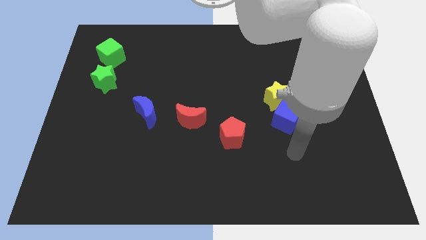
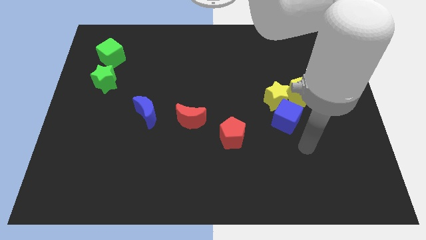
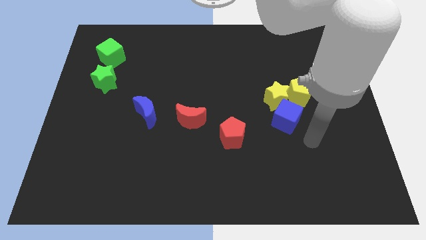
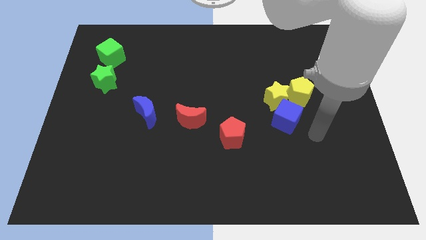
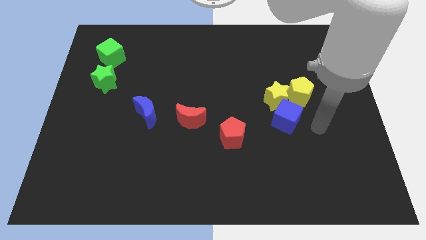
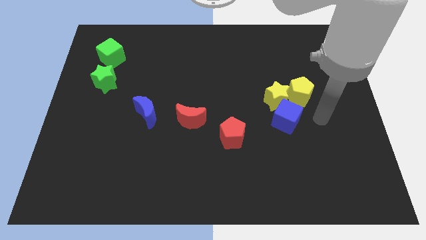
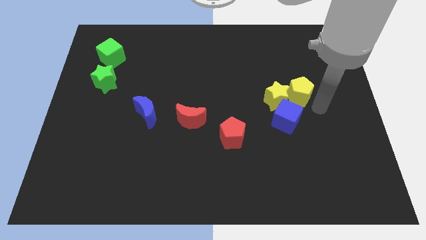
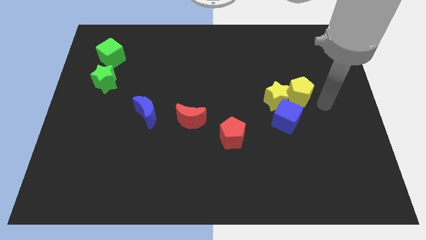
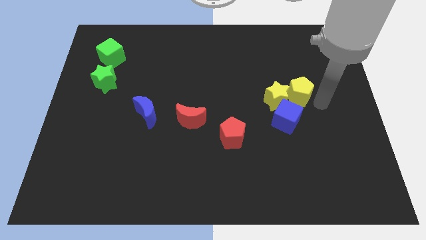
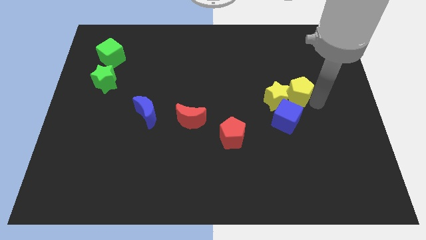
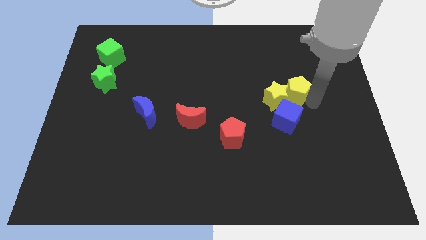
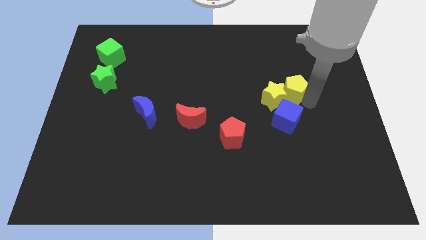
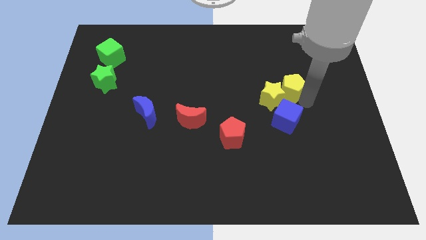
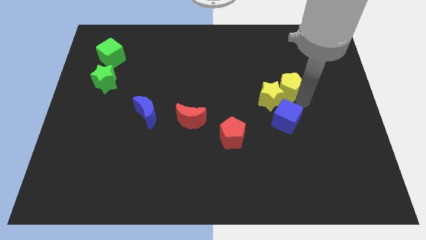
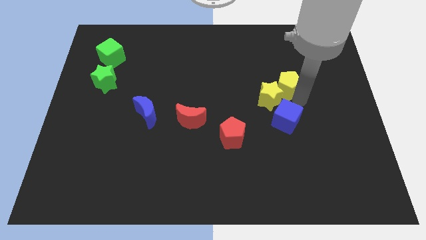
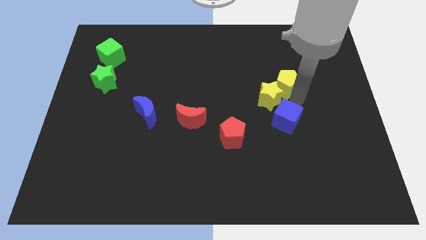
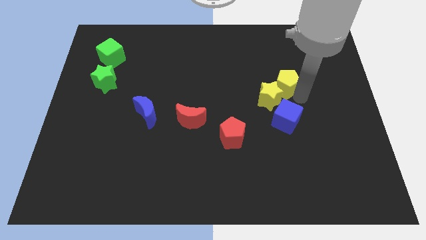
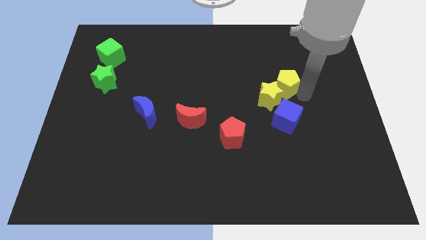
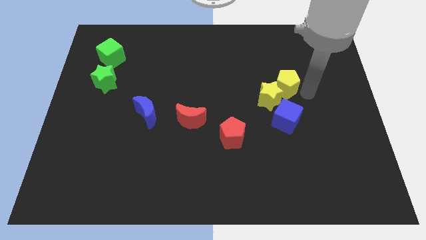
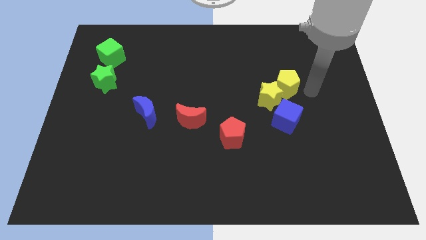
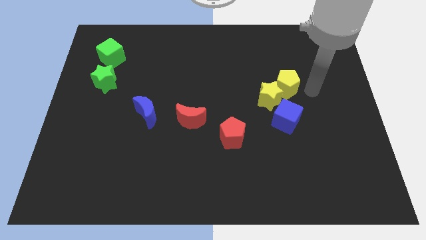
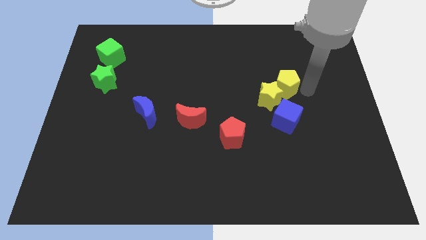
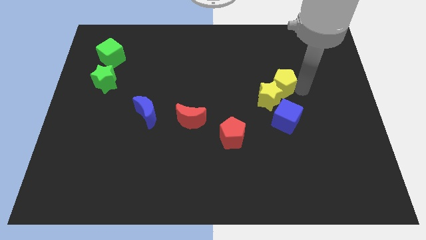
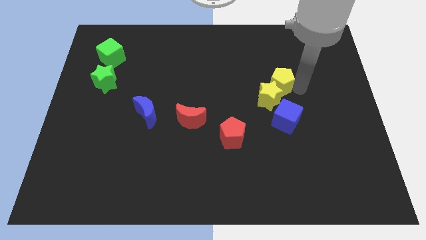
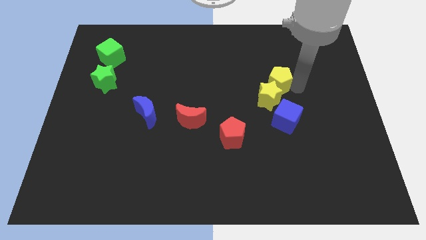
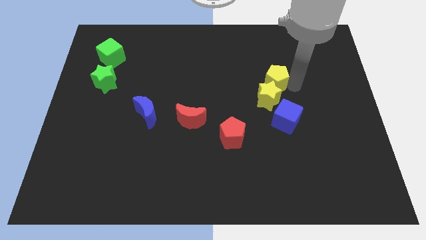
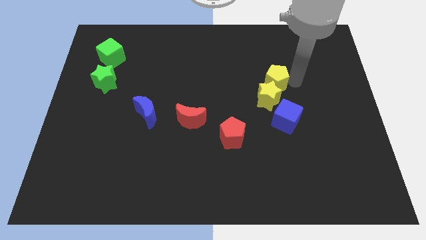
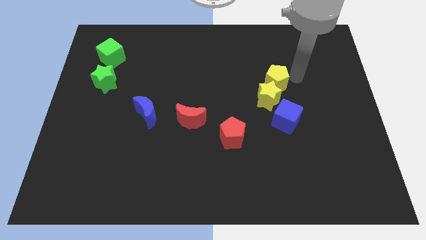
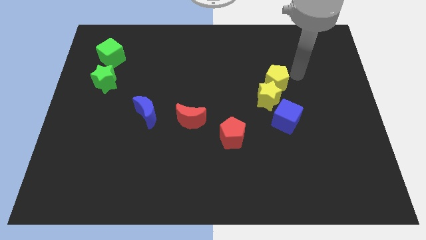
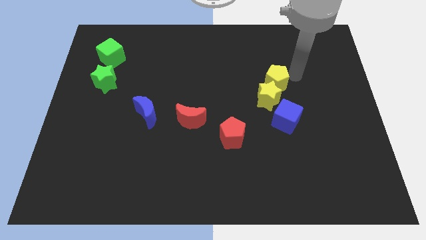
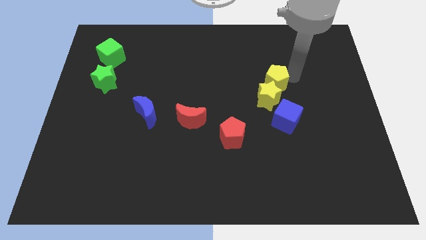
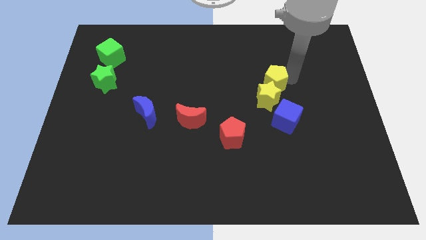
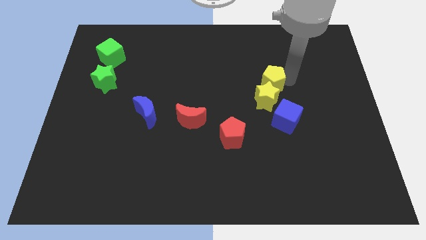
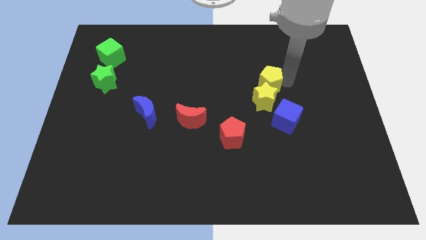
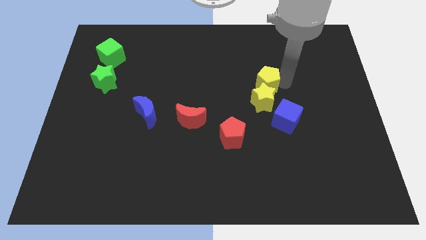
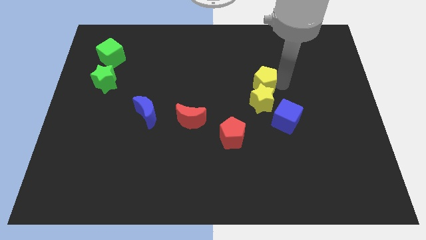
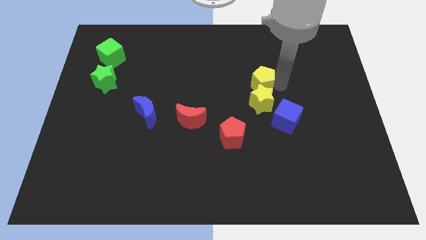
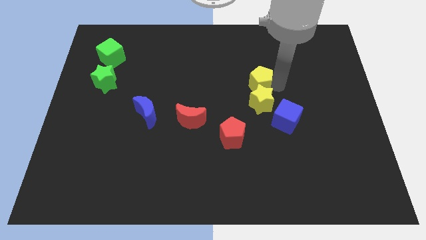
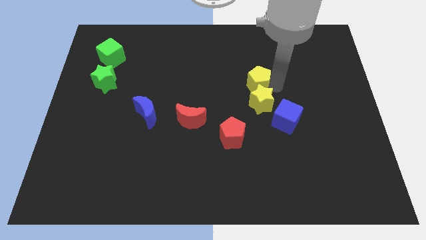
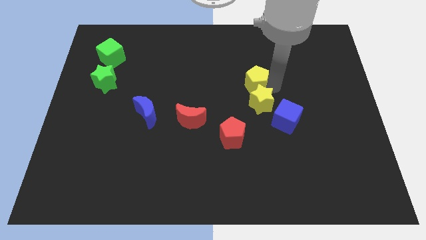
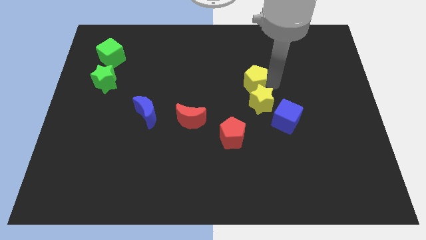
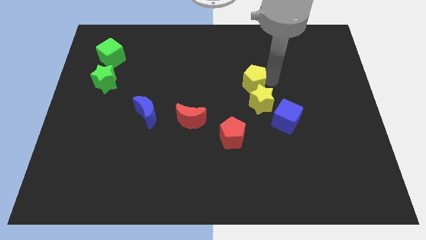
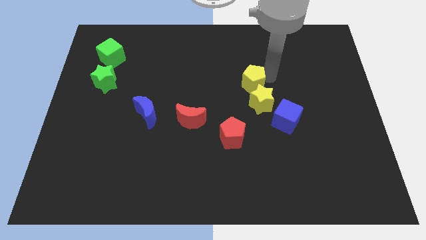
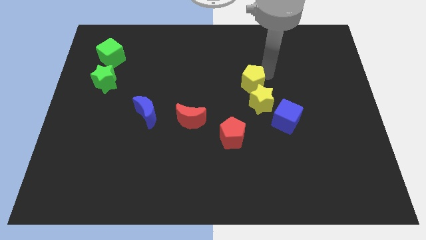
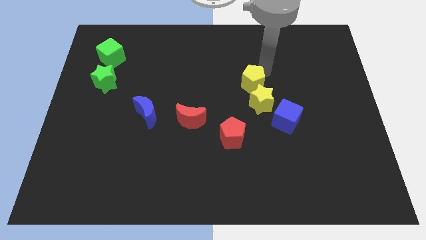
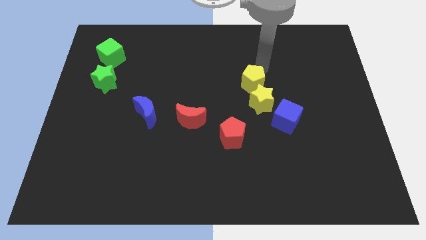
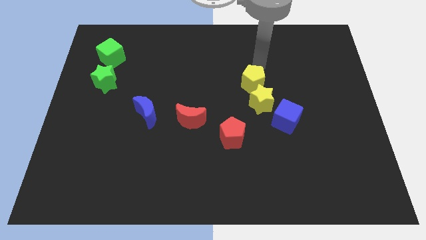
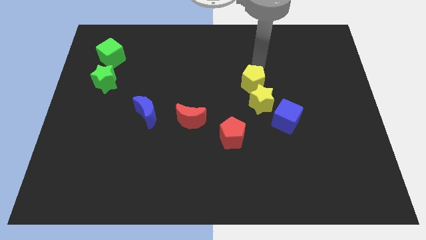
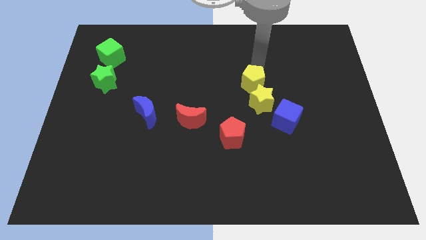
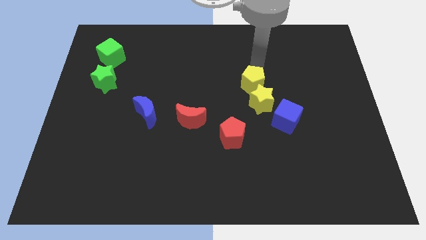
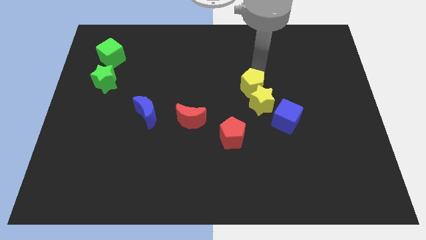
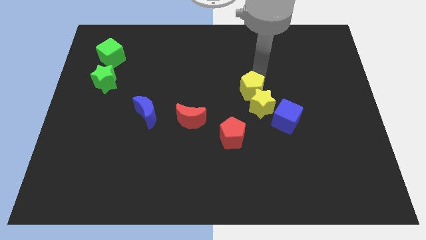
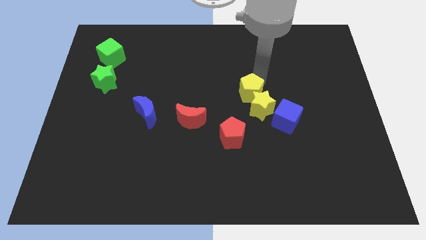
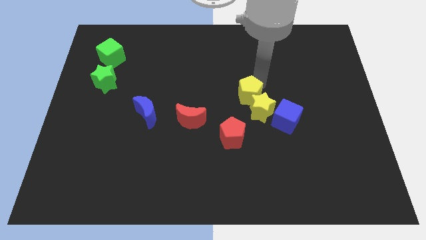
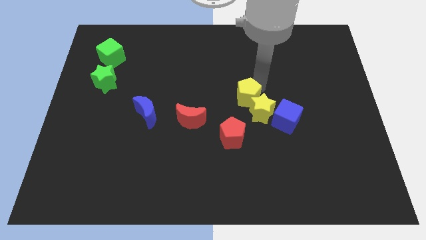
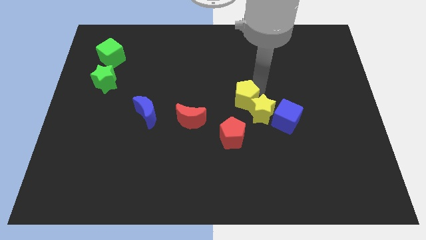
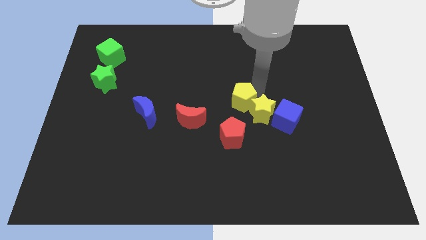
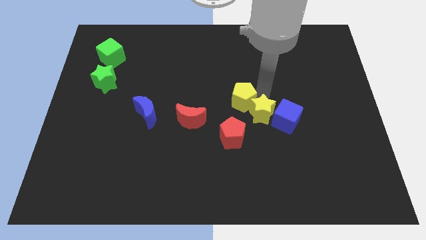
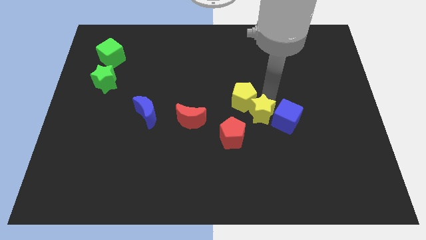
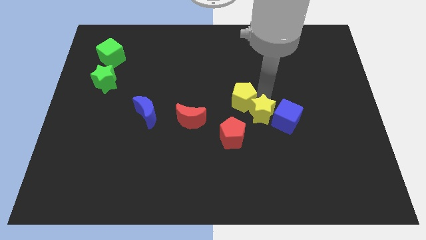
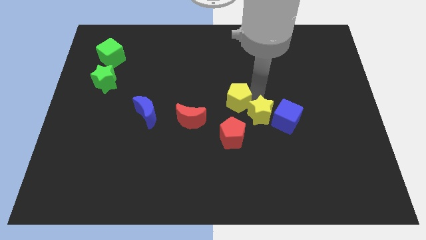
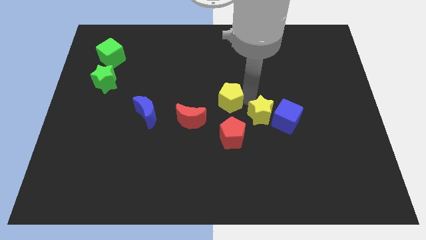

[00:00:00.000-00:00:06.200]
slide the yellow pentagon to the top right side of the red moon

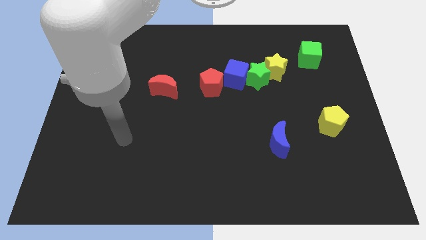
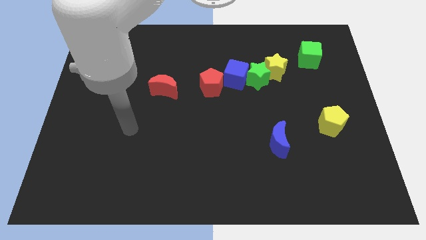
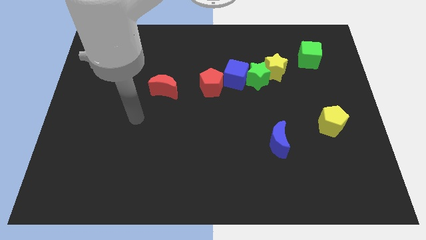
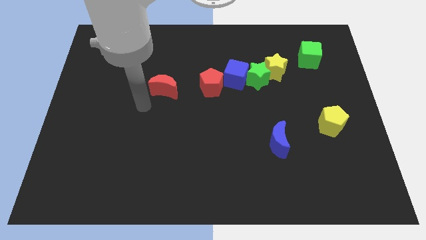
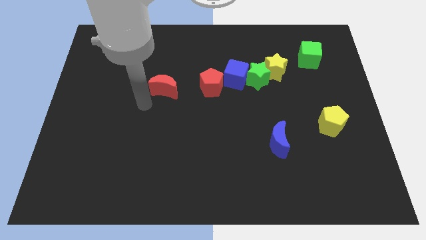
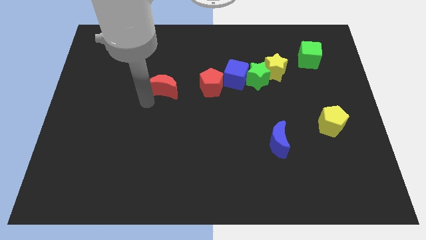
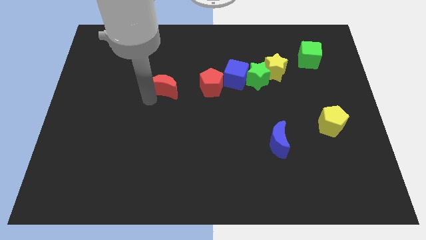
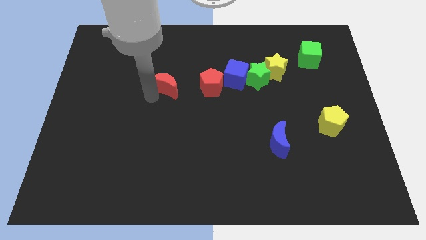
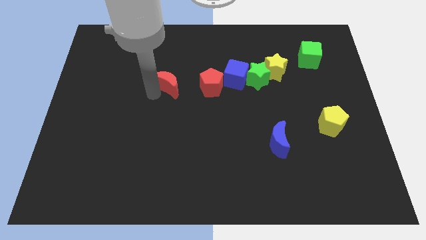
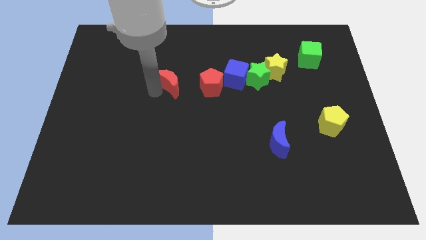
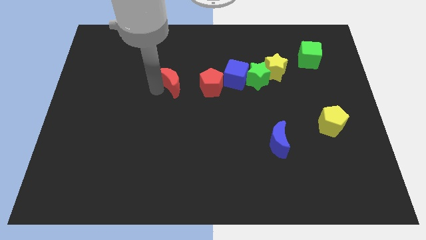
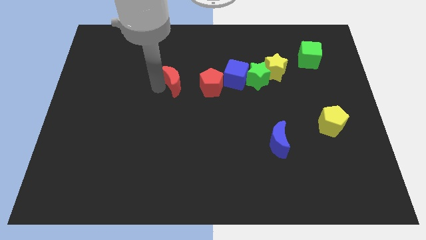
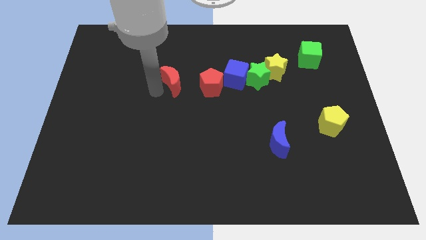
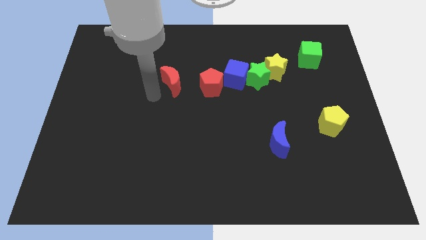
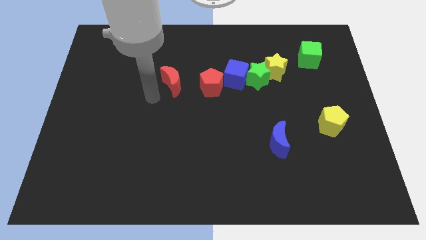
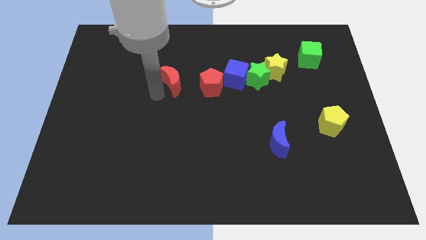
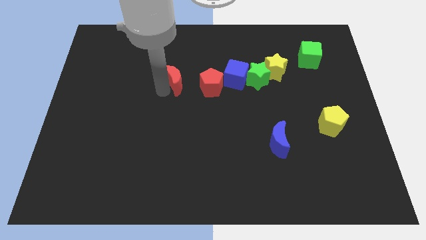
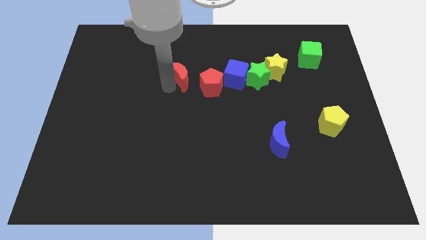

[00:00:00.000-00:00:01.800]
put the red moon to the top left side of the red pentagon
